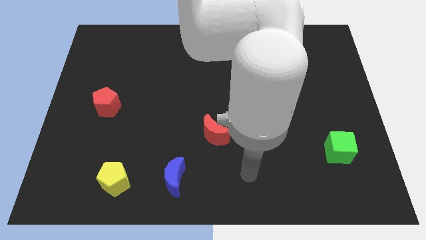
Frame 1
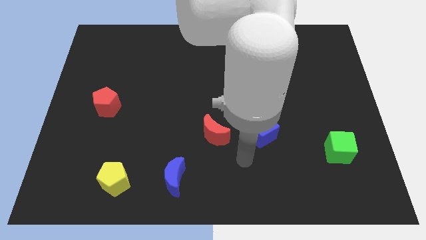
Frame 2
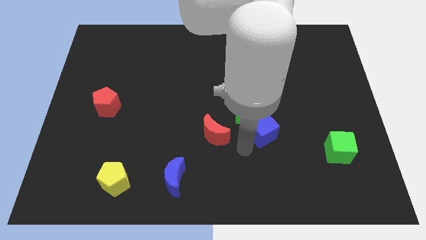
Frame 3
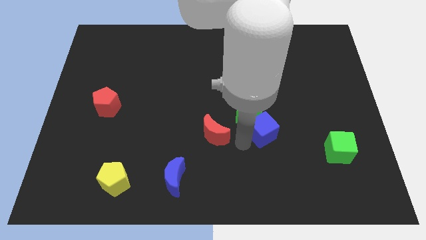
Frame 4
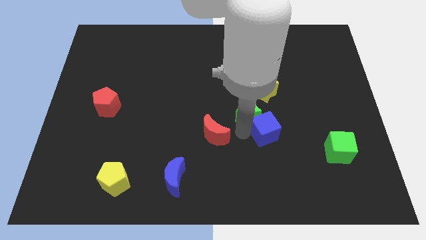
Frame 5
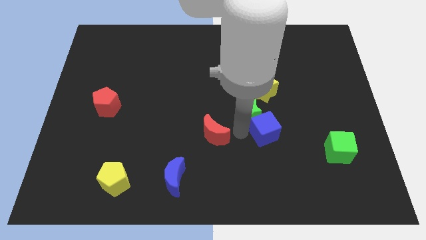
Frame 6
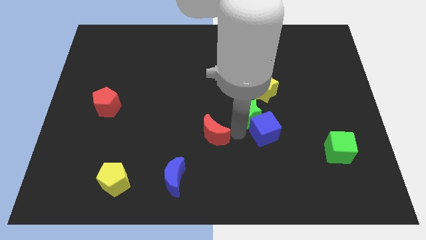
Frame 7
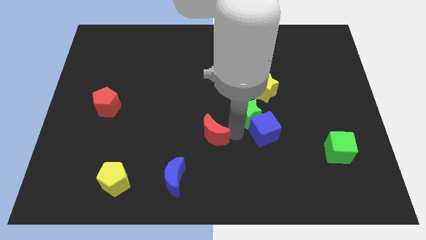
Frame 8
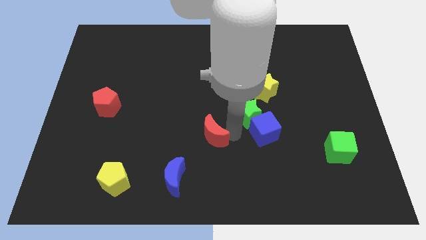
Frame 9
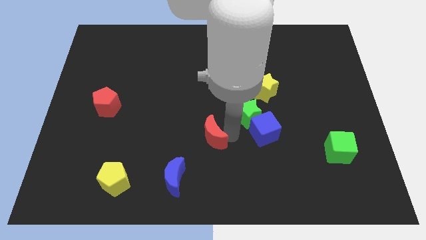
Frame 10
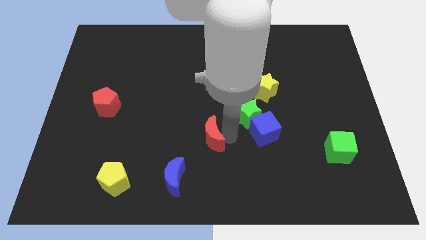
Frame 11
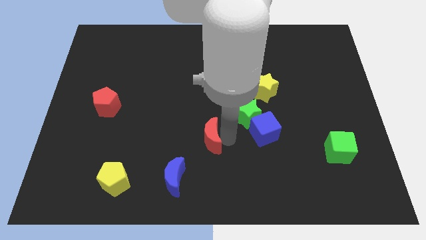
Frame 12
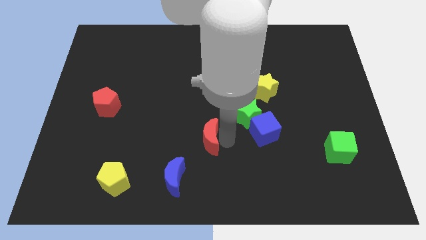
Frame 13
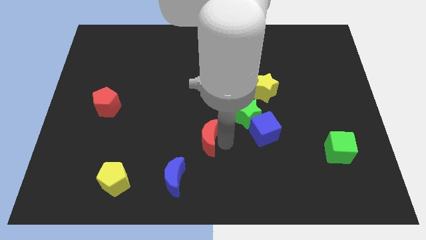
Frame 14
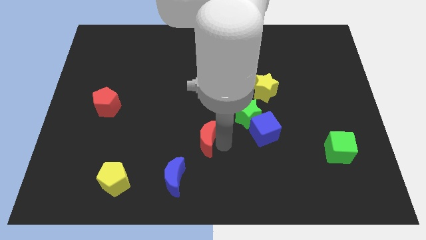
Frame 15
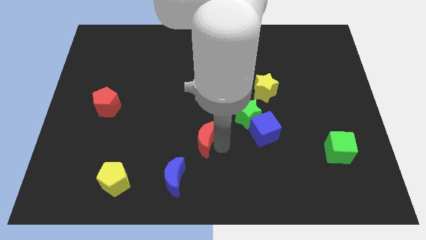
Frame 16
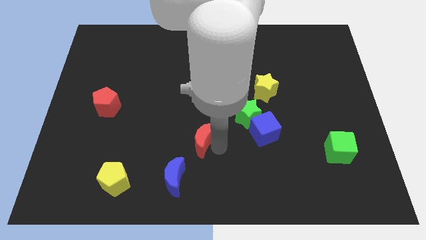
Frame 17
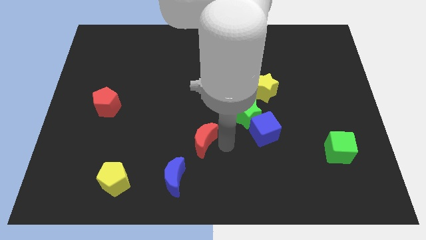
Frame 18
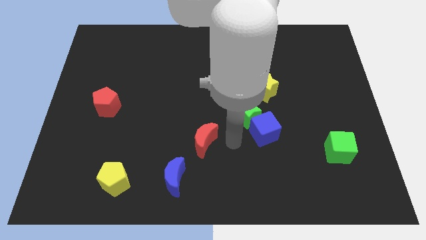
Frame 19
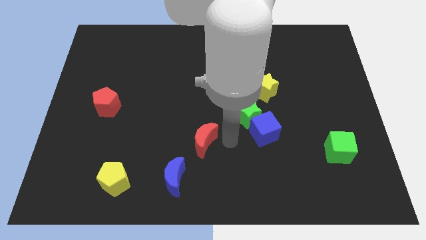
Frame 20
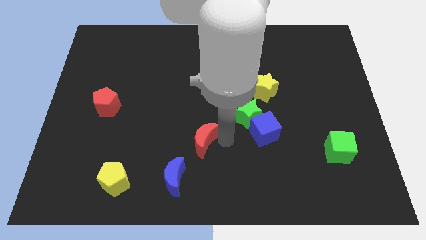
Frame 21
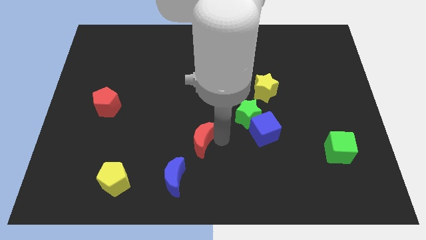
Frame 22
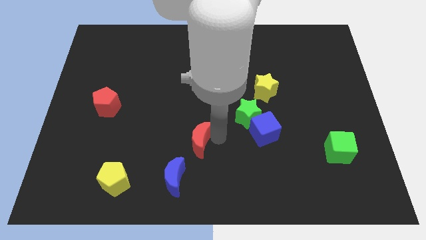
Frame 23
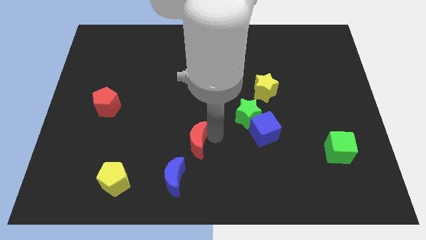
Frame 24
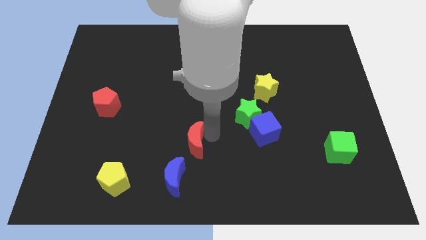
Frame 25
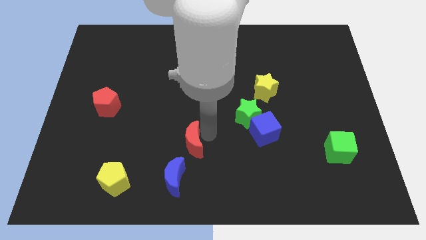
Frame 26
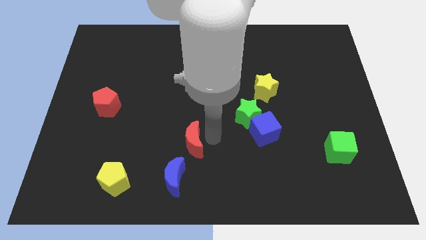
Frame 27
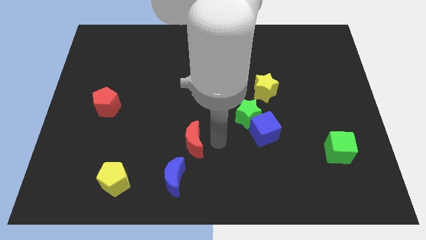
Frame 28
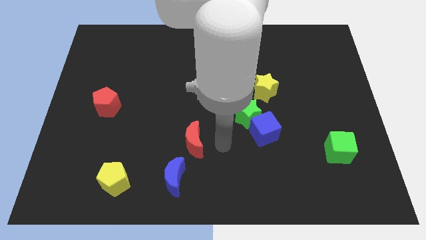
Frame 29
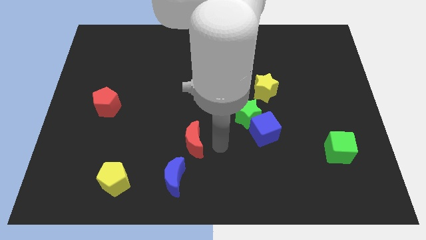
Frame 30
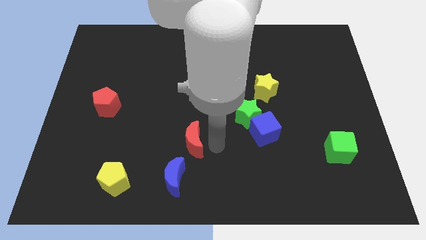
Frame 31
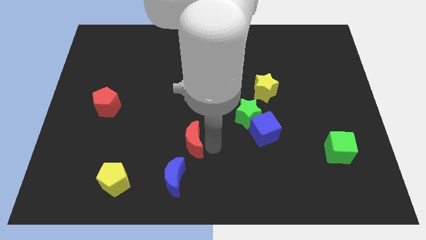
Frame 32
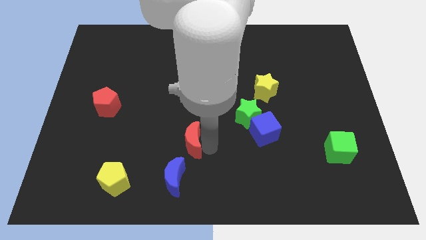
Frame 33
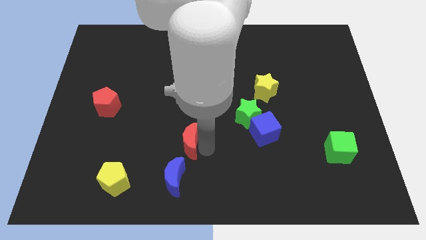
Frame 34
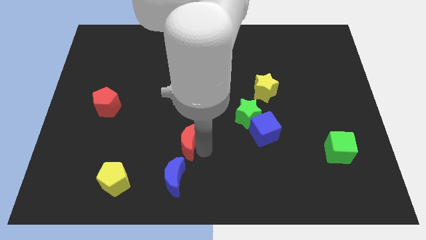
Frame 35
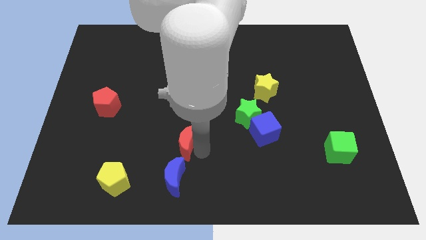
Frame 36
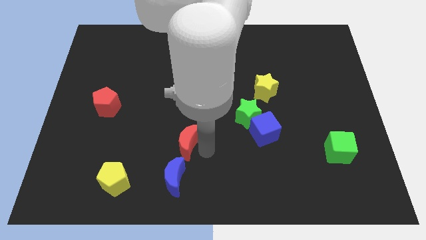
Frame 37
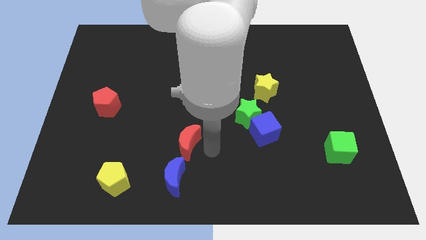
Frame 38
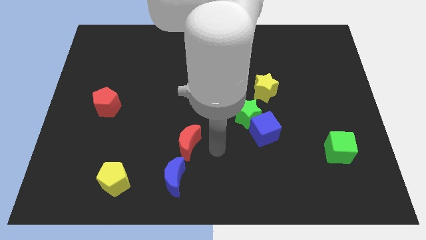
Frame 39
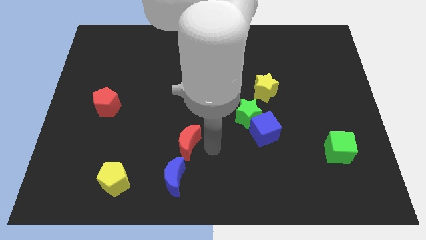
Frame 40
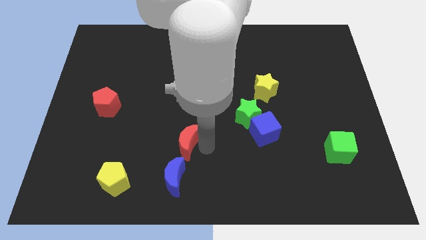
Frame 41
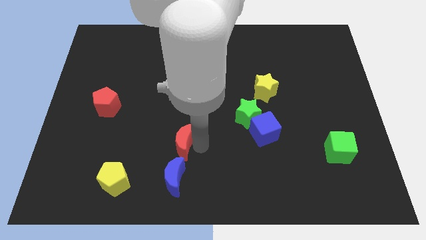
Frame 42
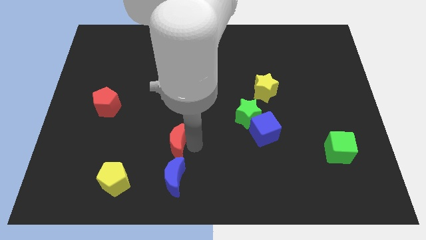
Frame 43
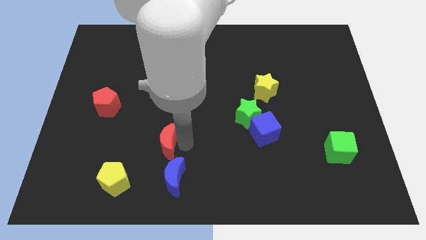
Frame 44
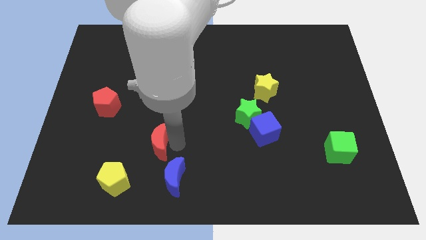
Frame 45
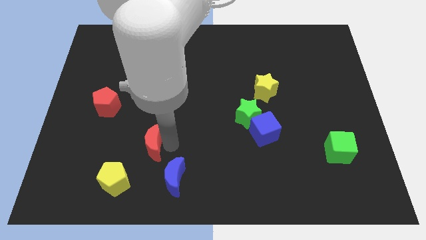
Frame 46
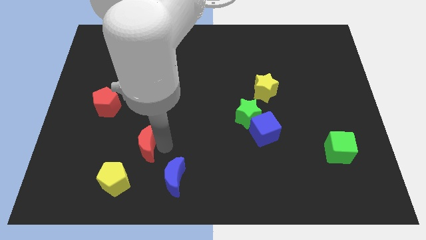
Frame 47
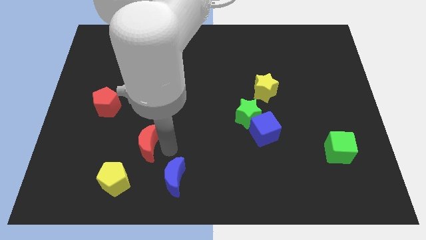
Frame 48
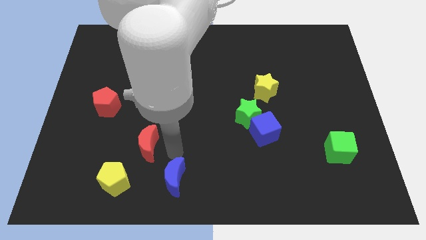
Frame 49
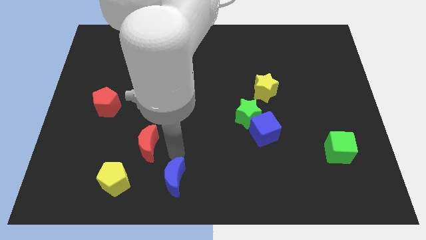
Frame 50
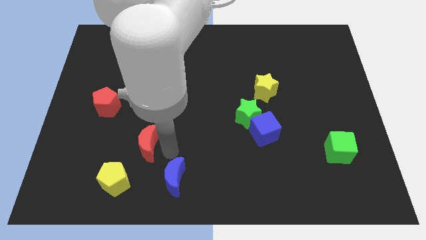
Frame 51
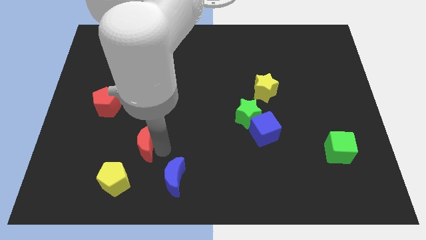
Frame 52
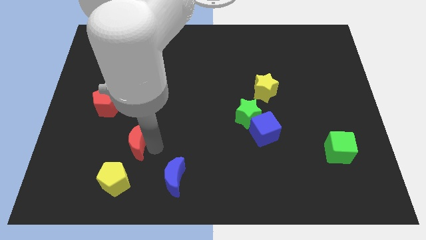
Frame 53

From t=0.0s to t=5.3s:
move the red moon to the top of the yellow pentagon

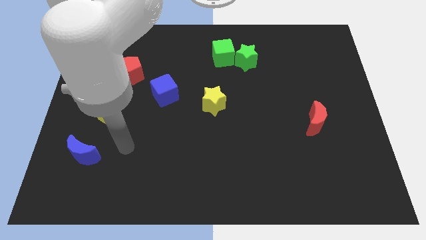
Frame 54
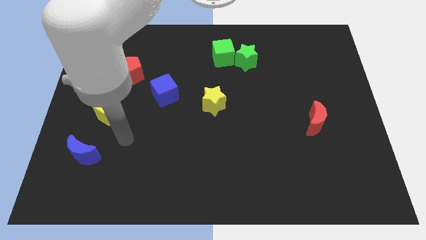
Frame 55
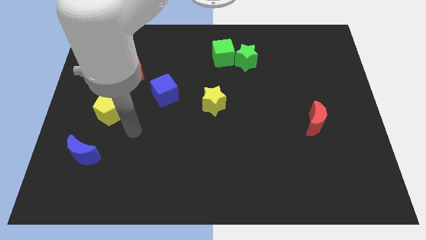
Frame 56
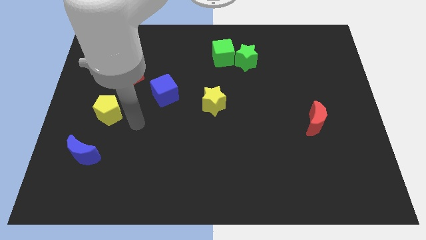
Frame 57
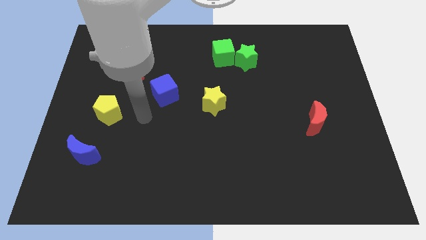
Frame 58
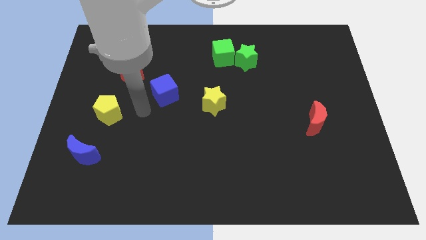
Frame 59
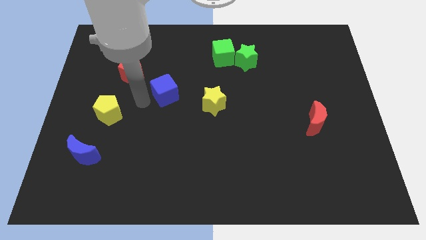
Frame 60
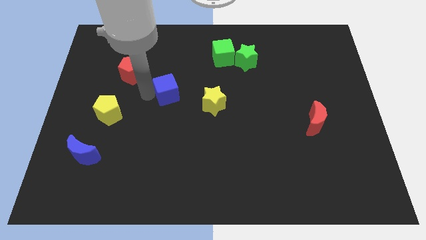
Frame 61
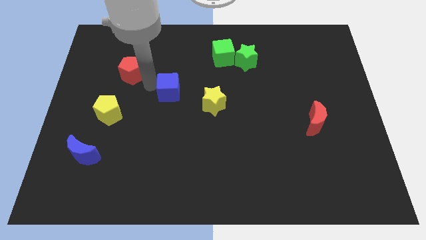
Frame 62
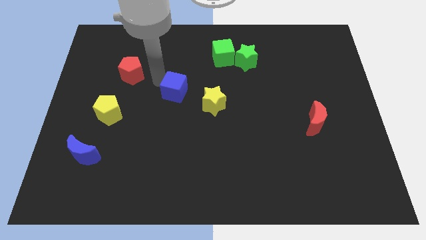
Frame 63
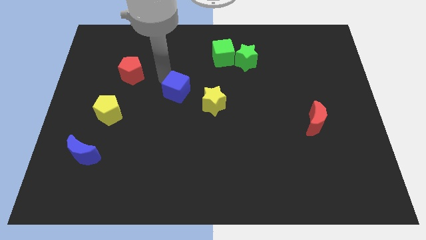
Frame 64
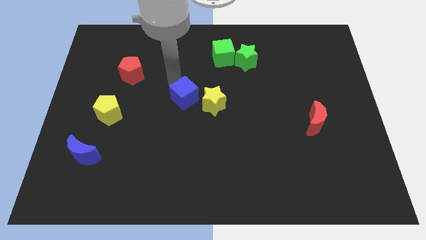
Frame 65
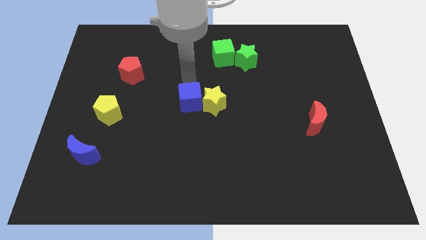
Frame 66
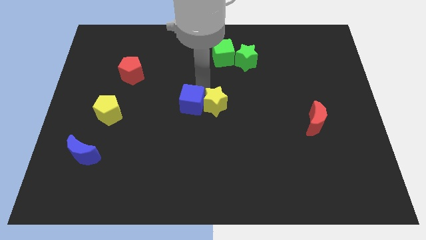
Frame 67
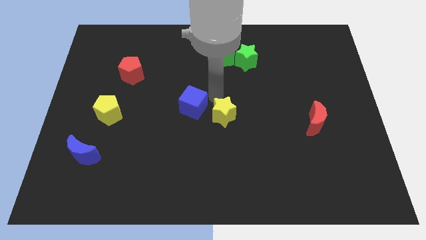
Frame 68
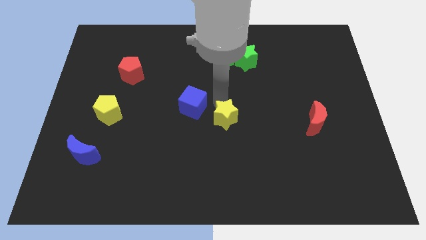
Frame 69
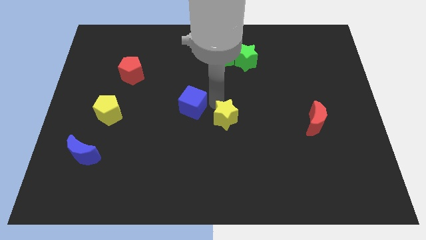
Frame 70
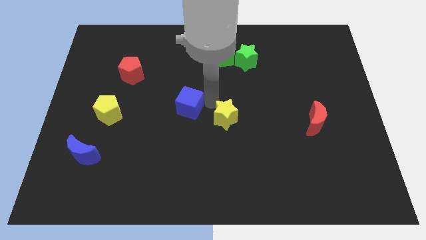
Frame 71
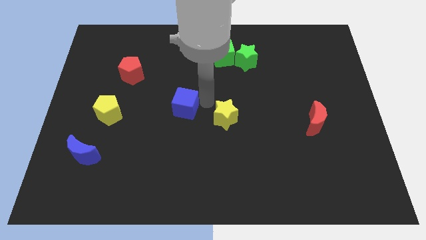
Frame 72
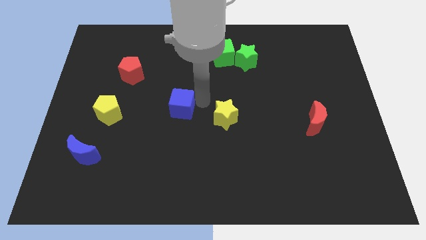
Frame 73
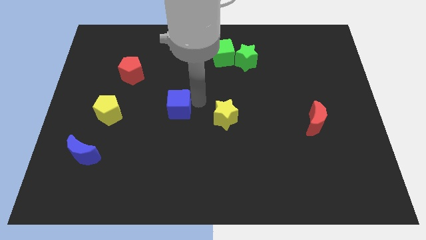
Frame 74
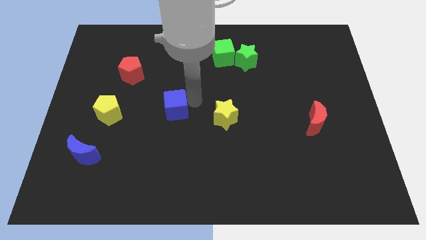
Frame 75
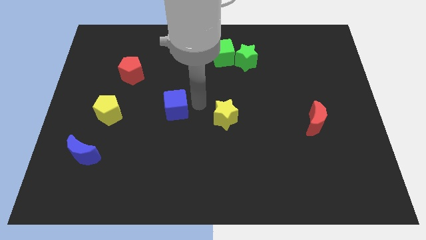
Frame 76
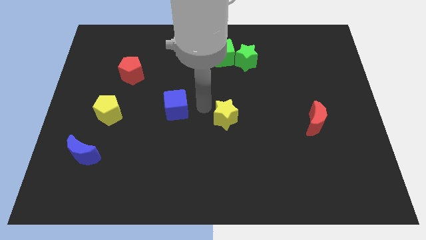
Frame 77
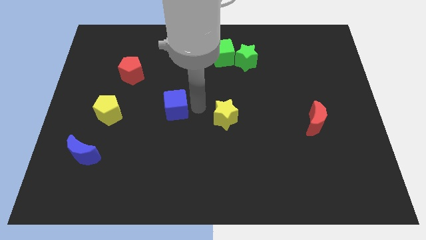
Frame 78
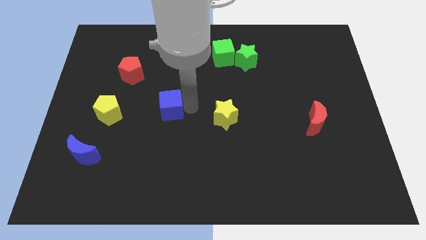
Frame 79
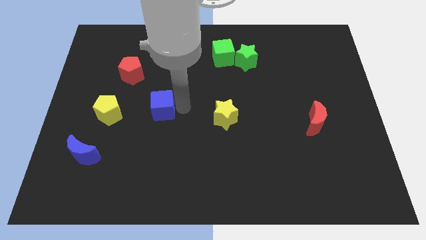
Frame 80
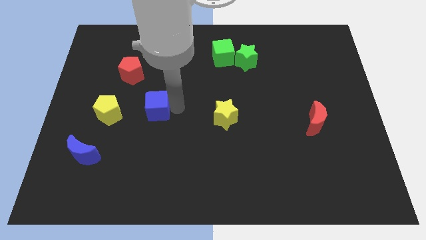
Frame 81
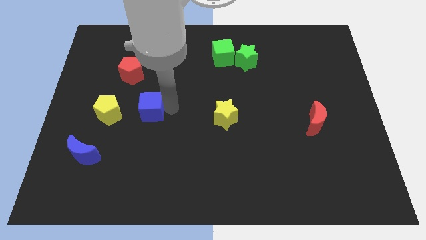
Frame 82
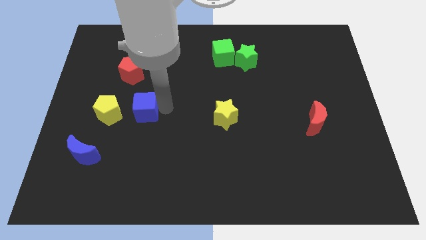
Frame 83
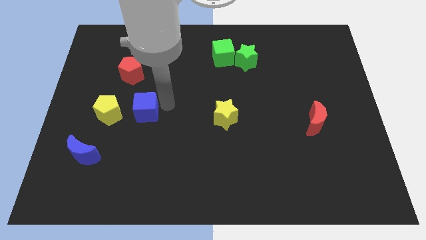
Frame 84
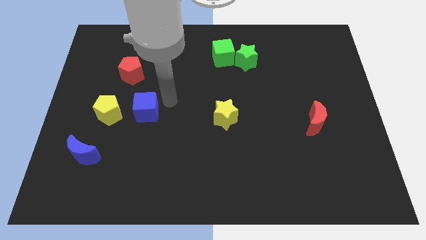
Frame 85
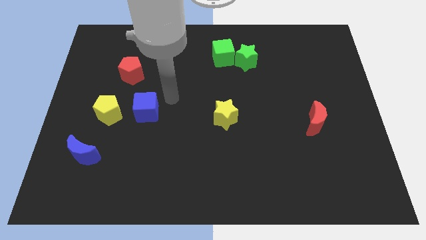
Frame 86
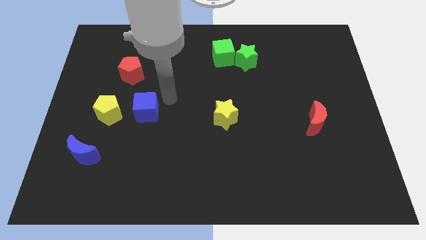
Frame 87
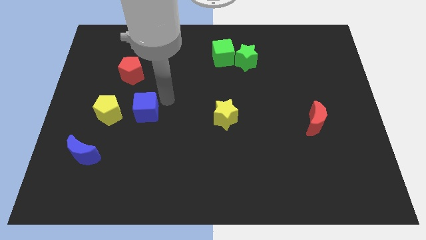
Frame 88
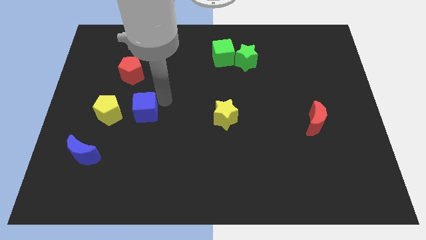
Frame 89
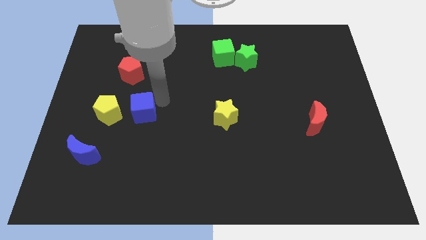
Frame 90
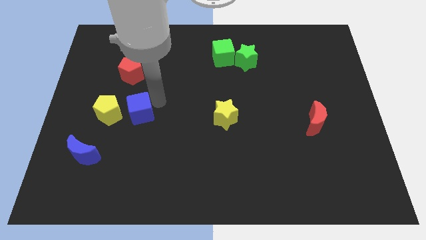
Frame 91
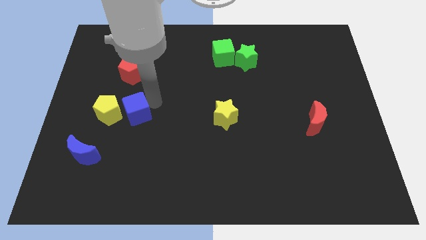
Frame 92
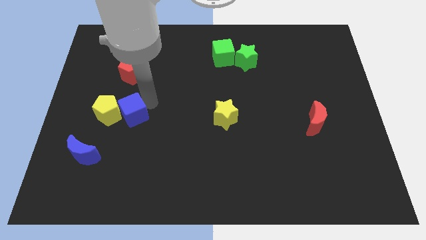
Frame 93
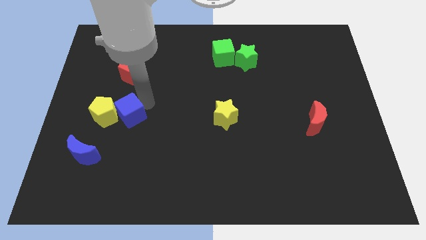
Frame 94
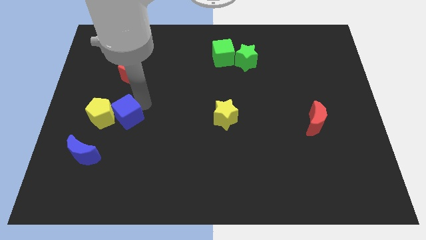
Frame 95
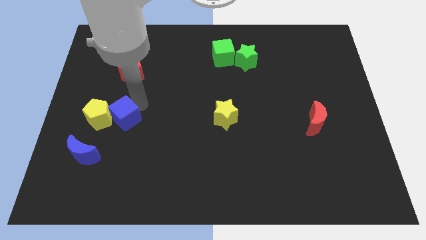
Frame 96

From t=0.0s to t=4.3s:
push the blue cube to the top right of the blue moon
